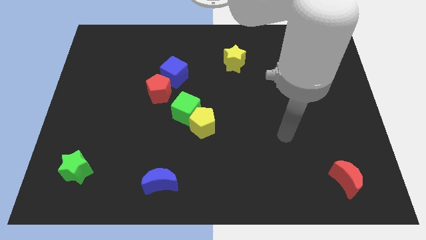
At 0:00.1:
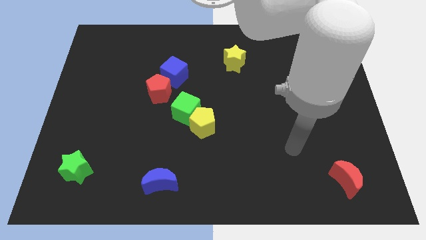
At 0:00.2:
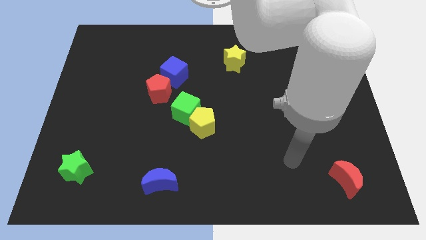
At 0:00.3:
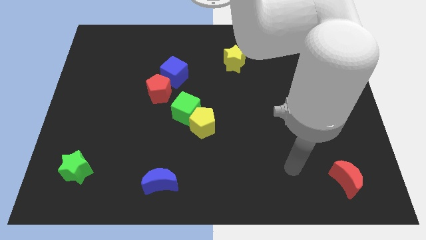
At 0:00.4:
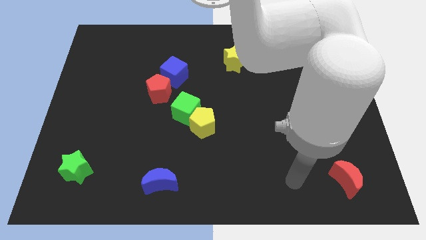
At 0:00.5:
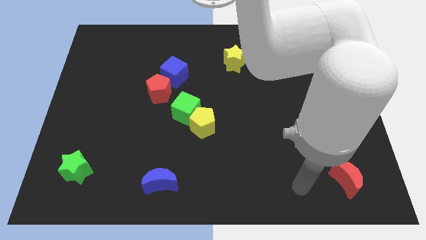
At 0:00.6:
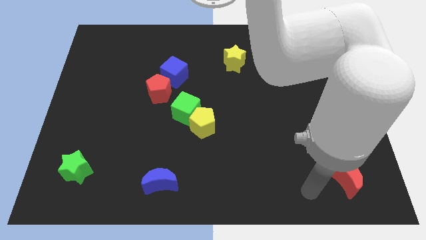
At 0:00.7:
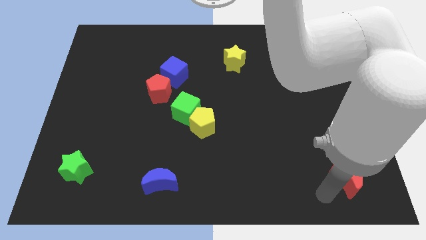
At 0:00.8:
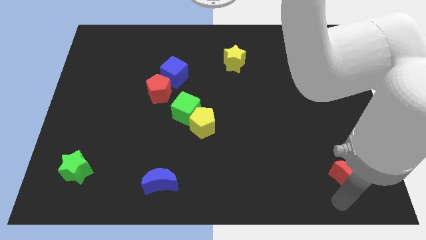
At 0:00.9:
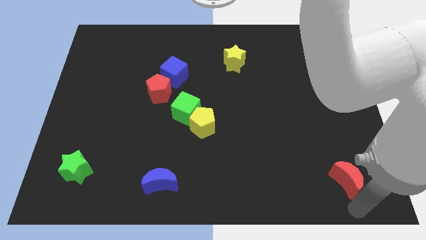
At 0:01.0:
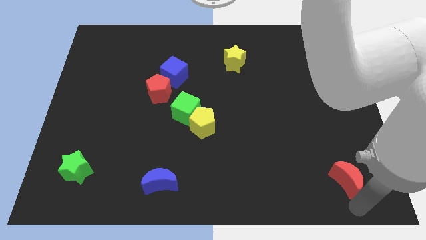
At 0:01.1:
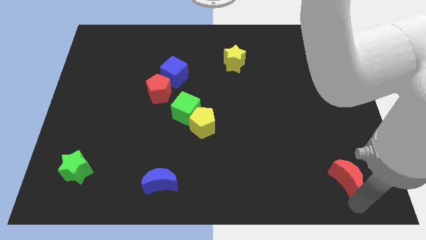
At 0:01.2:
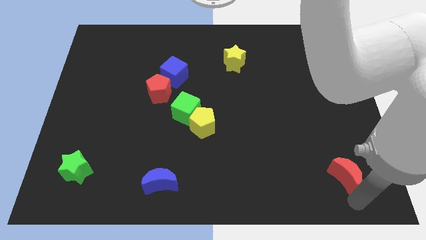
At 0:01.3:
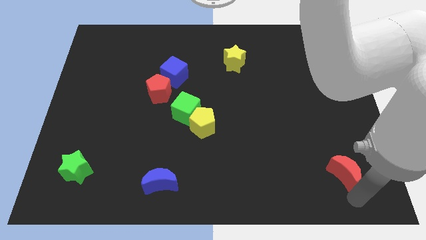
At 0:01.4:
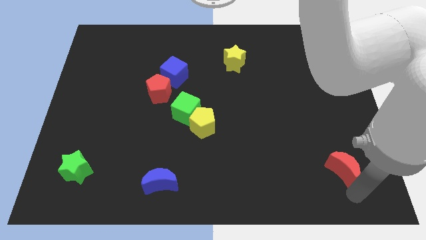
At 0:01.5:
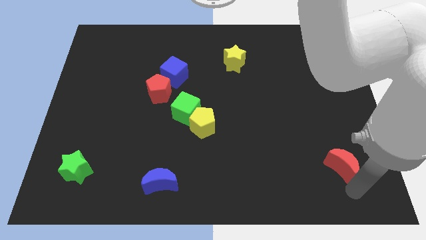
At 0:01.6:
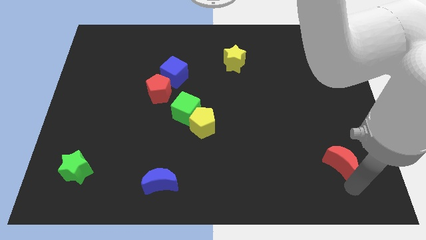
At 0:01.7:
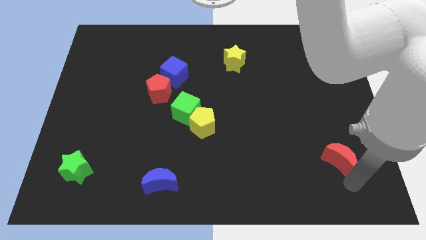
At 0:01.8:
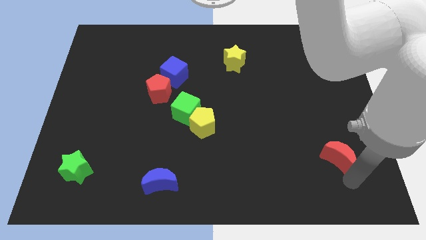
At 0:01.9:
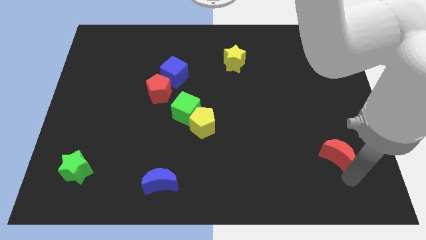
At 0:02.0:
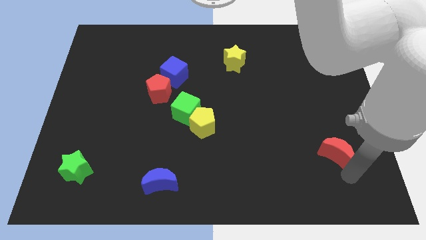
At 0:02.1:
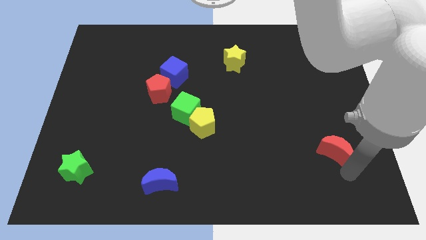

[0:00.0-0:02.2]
slide the red moon up slightly

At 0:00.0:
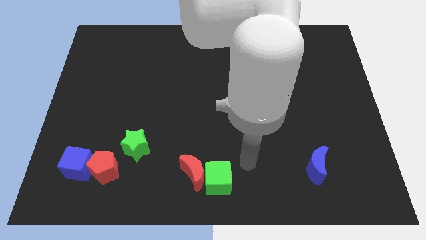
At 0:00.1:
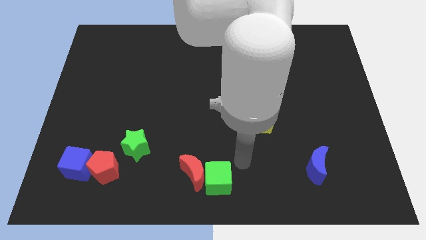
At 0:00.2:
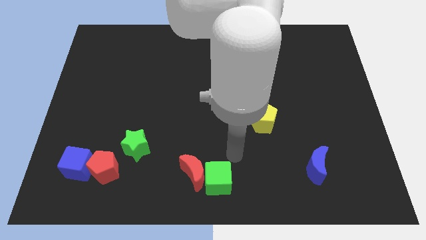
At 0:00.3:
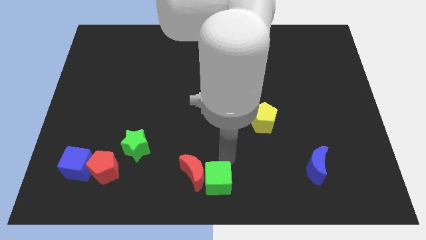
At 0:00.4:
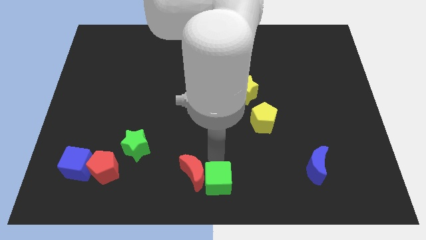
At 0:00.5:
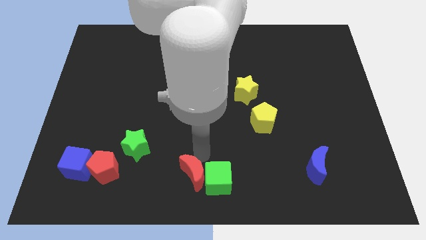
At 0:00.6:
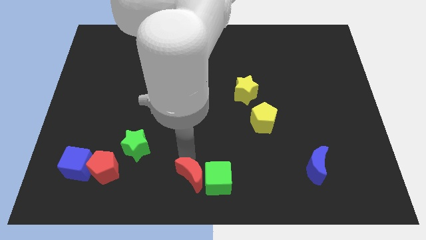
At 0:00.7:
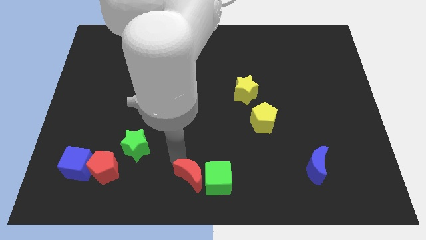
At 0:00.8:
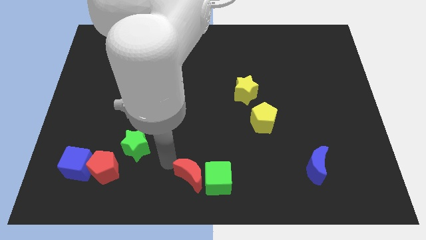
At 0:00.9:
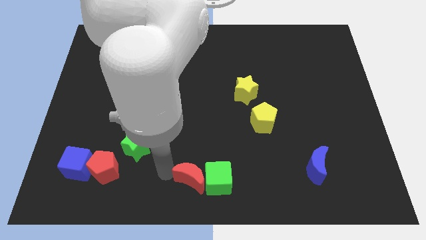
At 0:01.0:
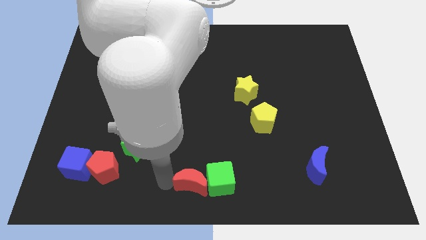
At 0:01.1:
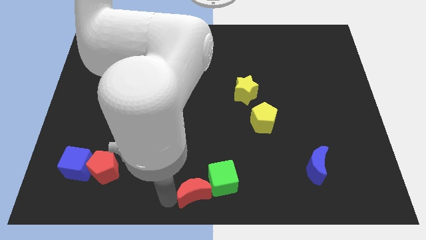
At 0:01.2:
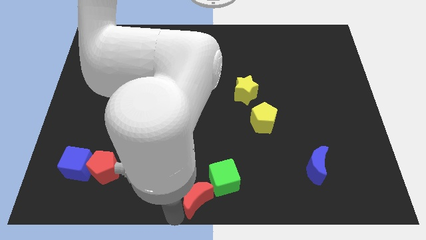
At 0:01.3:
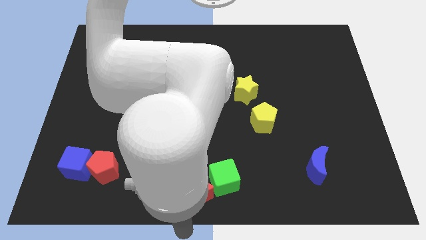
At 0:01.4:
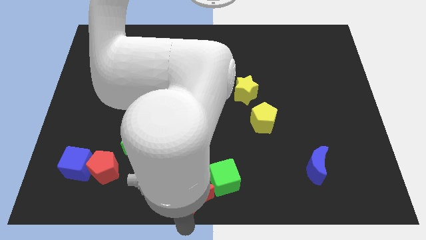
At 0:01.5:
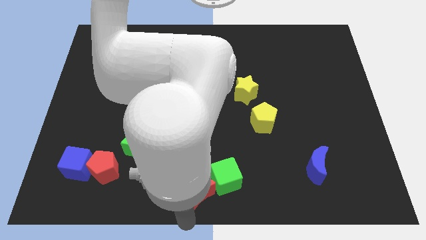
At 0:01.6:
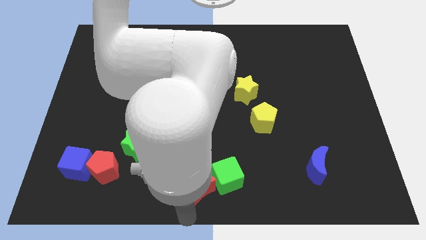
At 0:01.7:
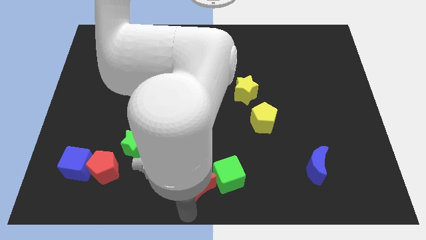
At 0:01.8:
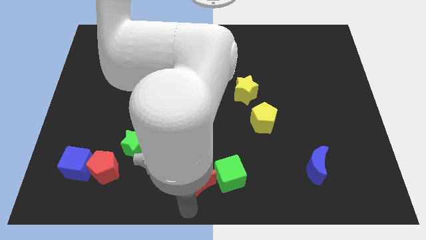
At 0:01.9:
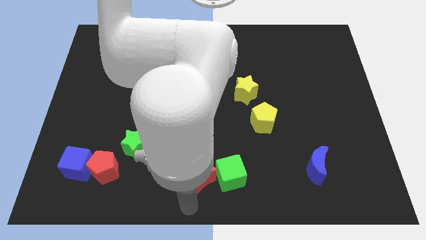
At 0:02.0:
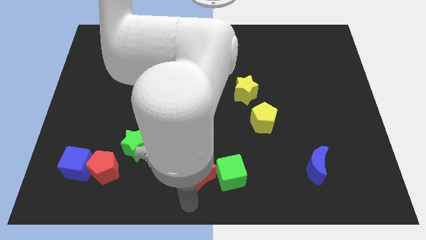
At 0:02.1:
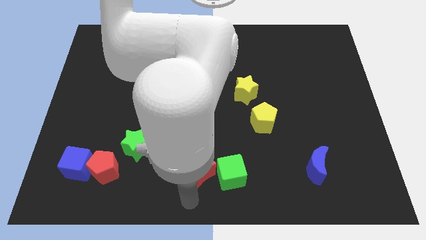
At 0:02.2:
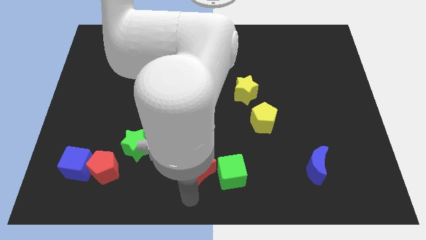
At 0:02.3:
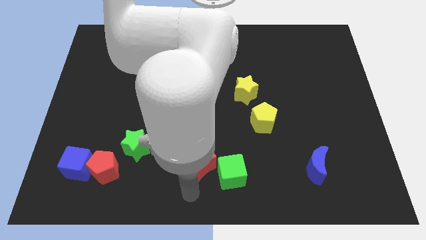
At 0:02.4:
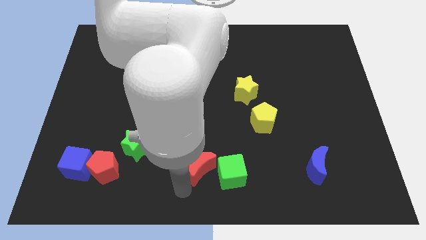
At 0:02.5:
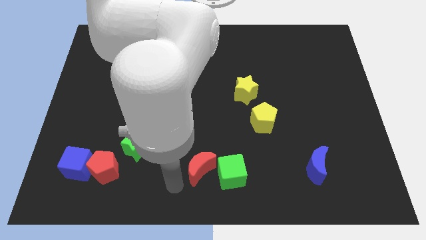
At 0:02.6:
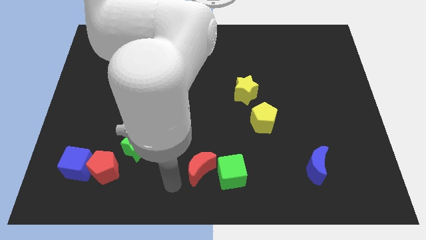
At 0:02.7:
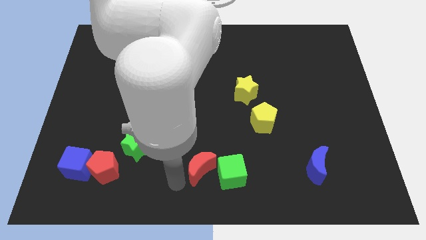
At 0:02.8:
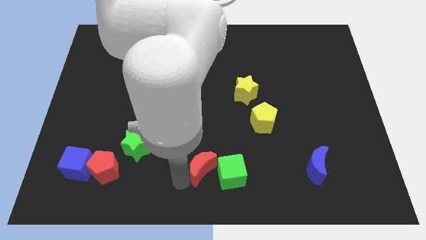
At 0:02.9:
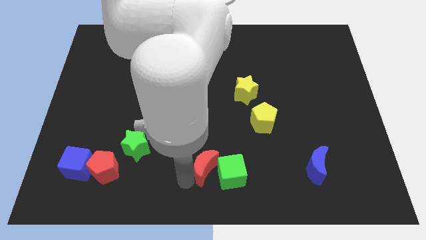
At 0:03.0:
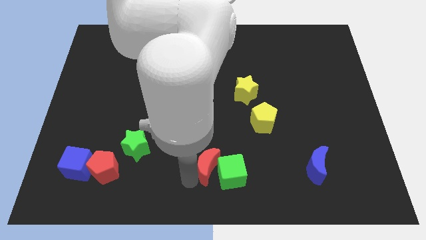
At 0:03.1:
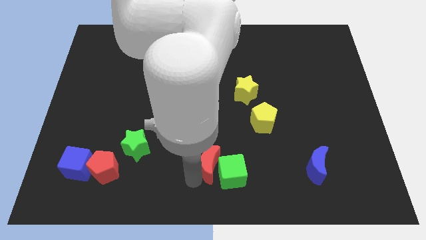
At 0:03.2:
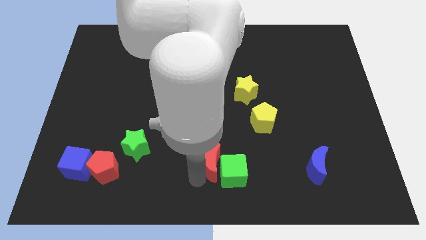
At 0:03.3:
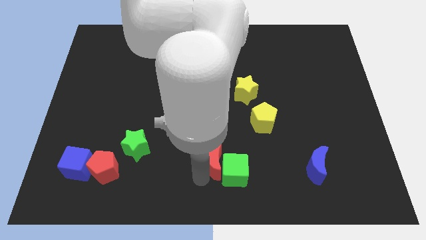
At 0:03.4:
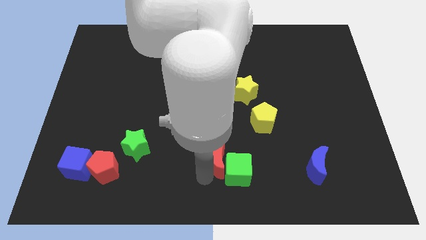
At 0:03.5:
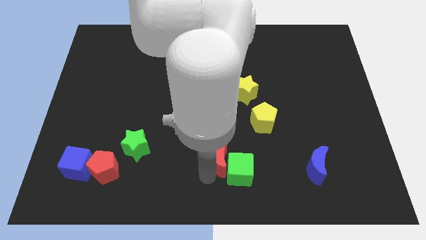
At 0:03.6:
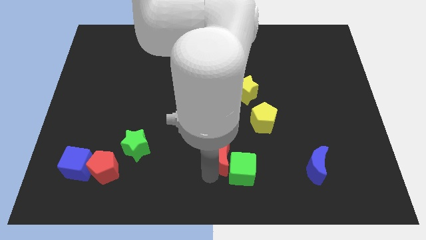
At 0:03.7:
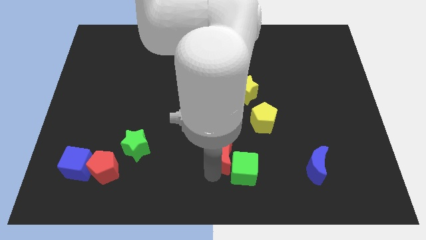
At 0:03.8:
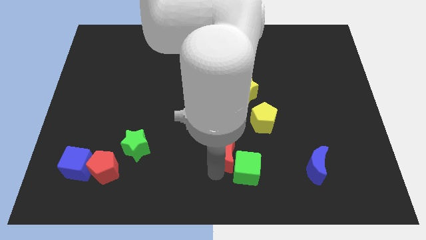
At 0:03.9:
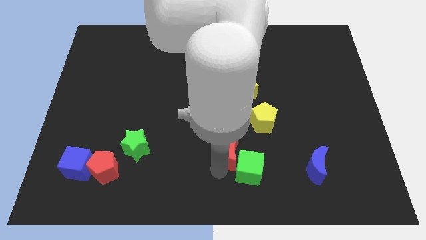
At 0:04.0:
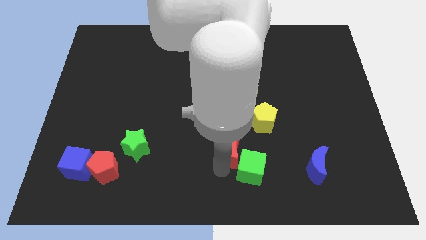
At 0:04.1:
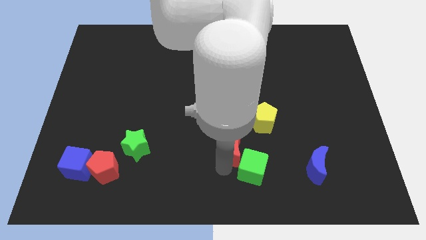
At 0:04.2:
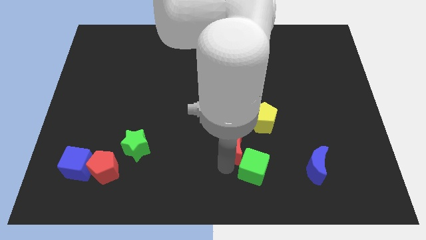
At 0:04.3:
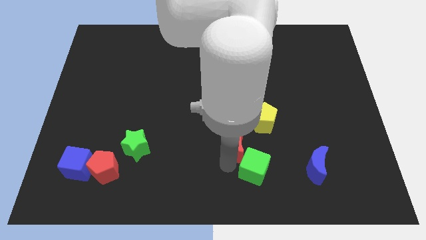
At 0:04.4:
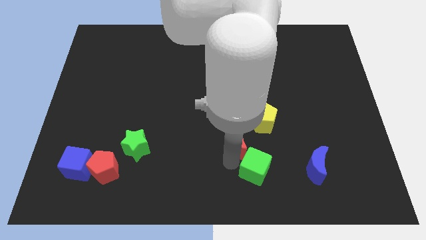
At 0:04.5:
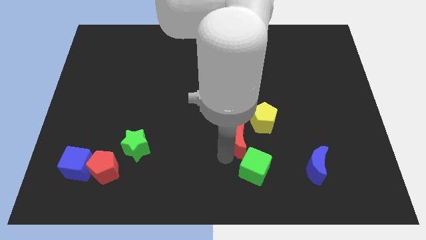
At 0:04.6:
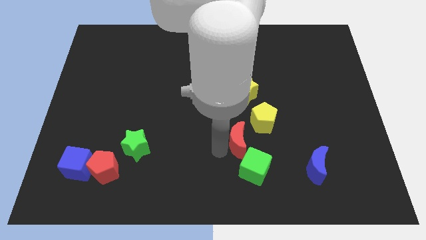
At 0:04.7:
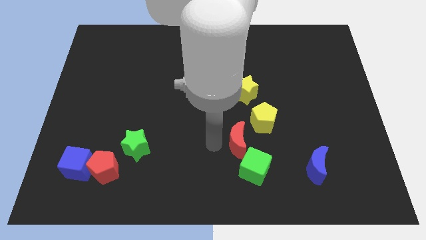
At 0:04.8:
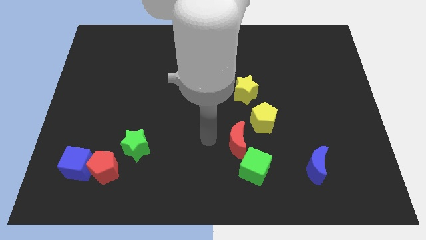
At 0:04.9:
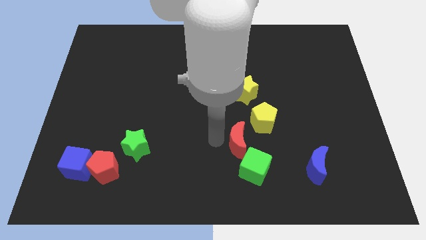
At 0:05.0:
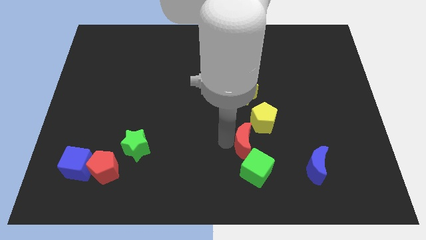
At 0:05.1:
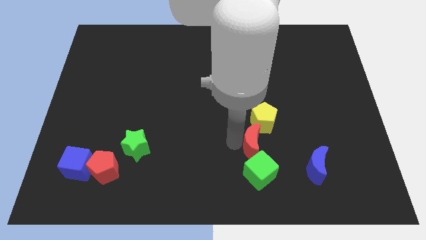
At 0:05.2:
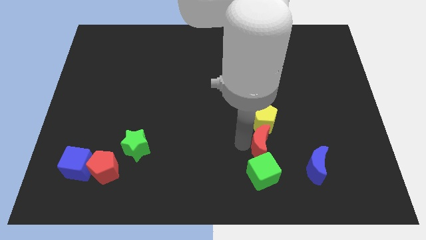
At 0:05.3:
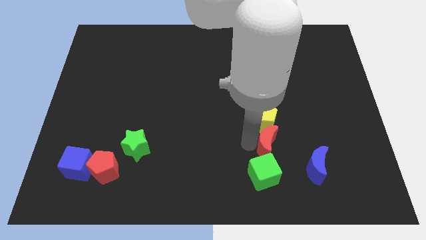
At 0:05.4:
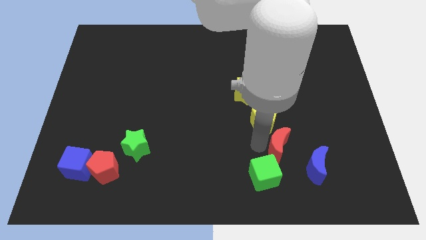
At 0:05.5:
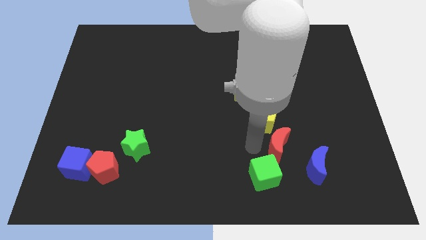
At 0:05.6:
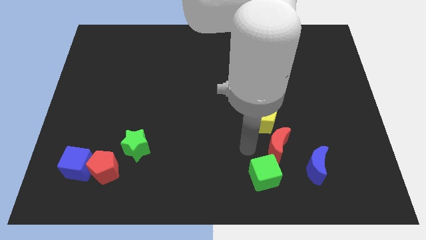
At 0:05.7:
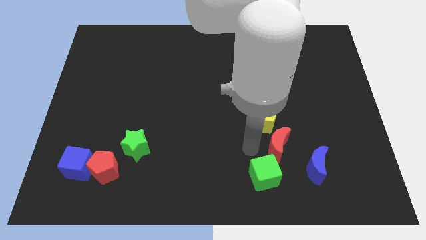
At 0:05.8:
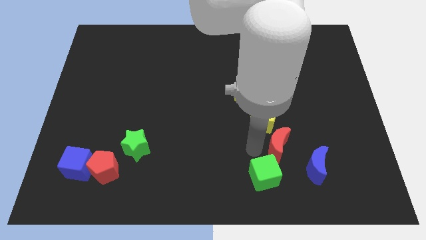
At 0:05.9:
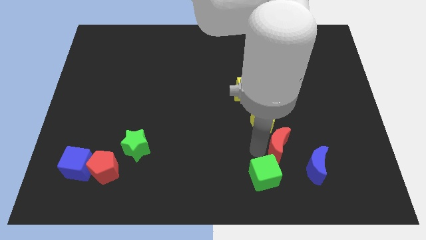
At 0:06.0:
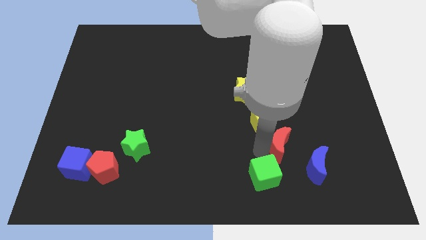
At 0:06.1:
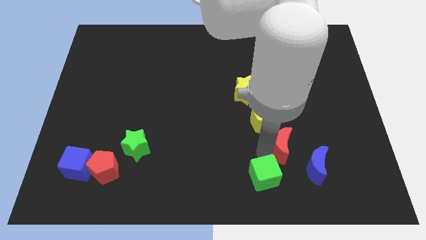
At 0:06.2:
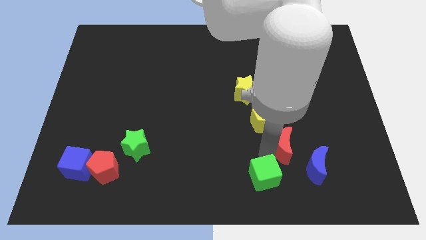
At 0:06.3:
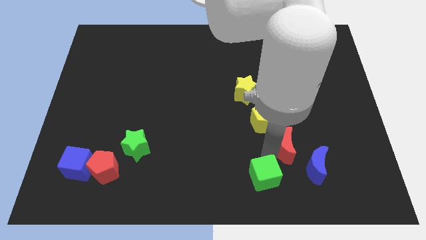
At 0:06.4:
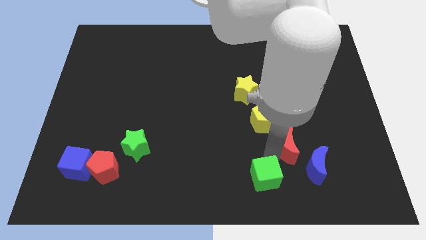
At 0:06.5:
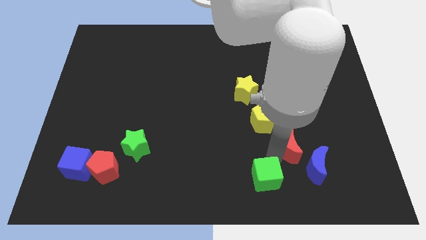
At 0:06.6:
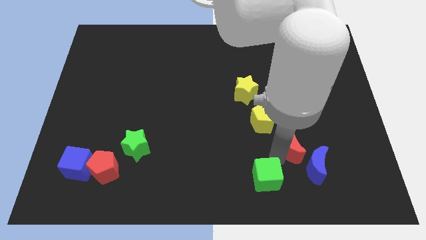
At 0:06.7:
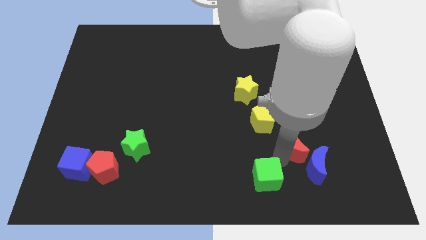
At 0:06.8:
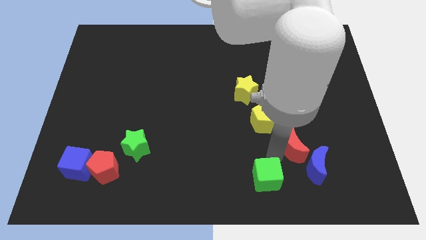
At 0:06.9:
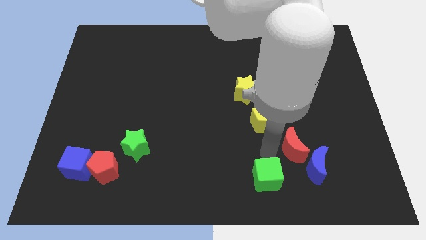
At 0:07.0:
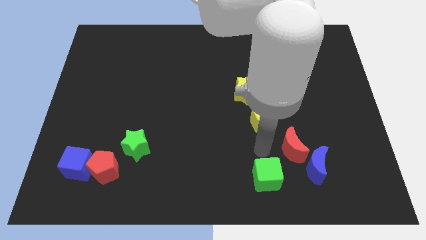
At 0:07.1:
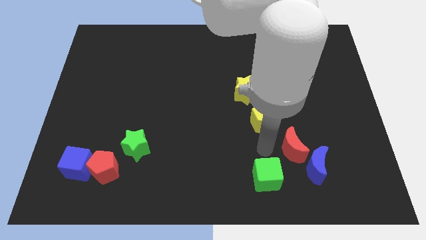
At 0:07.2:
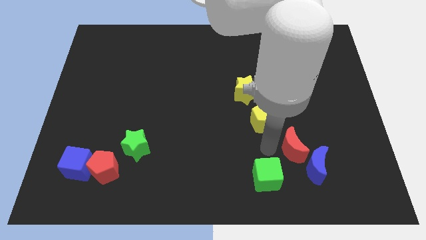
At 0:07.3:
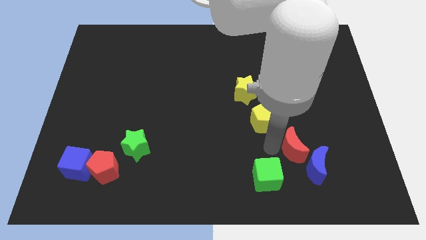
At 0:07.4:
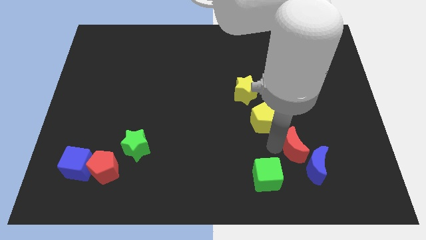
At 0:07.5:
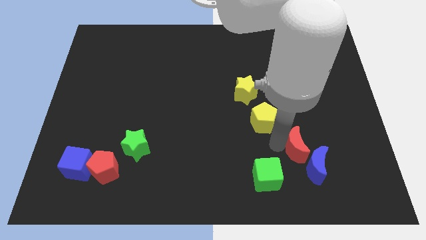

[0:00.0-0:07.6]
slide the red moon right
